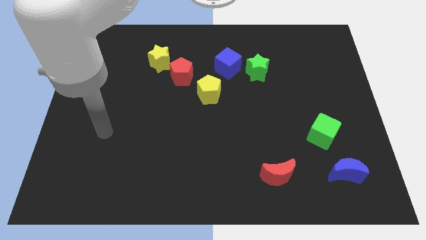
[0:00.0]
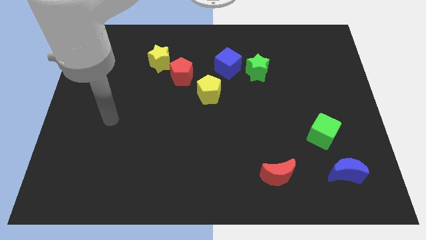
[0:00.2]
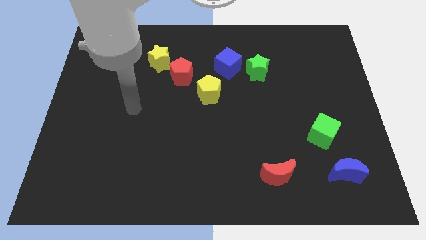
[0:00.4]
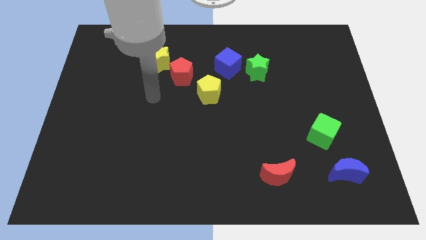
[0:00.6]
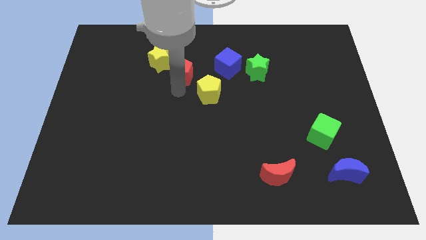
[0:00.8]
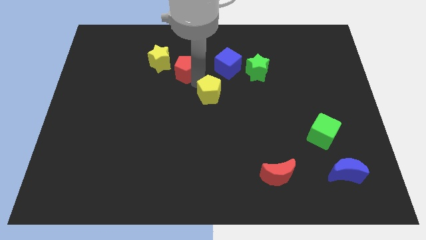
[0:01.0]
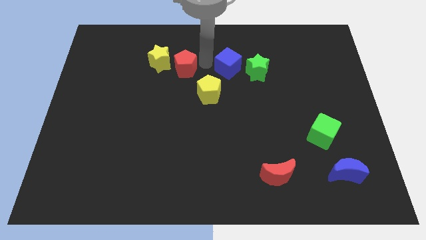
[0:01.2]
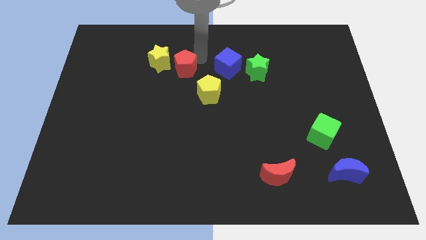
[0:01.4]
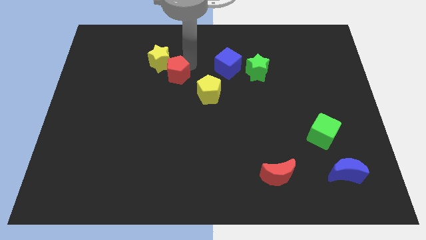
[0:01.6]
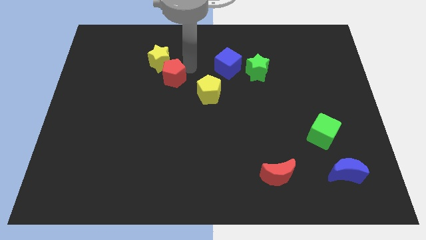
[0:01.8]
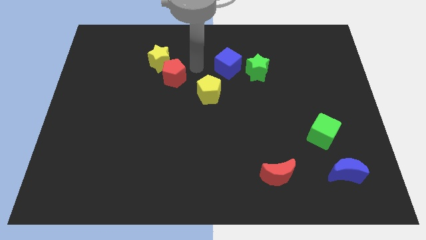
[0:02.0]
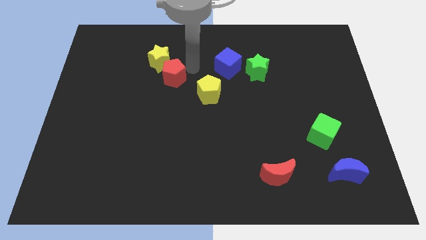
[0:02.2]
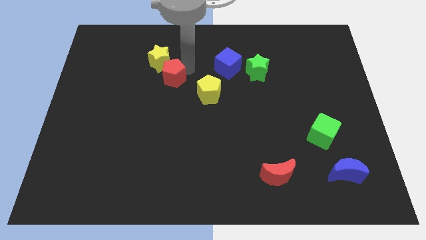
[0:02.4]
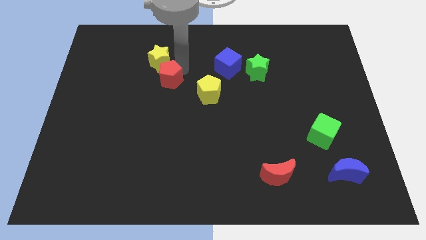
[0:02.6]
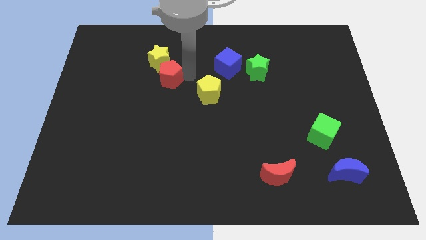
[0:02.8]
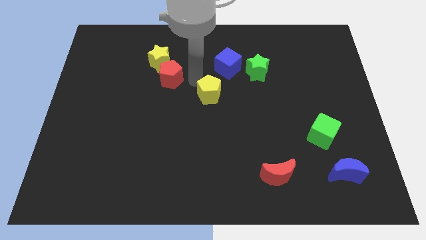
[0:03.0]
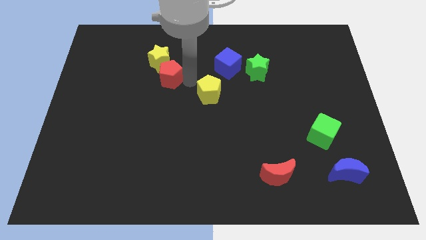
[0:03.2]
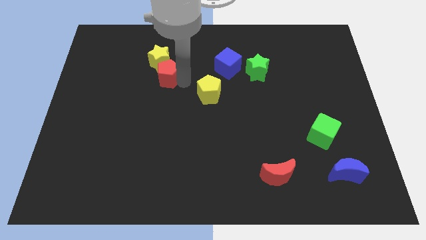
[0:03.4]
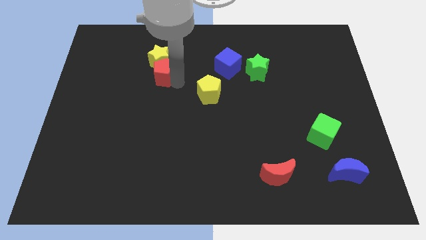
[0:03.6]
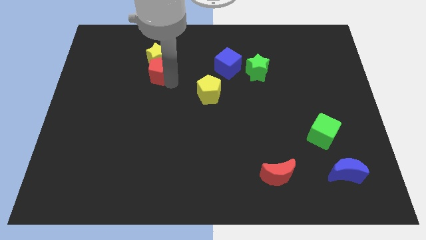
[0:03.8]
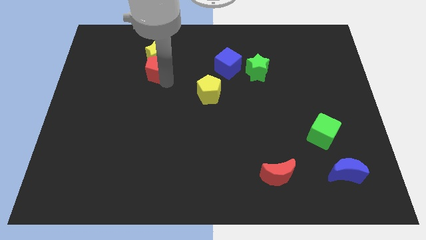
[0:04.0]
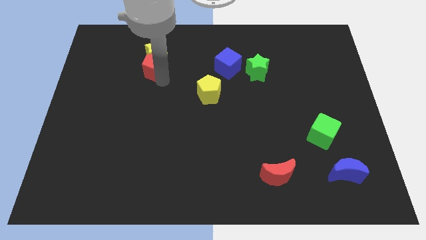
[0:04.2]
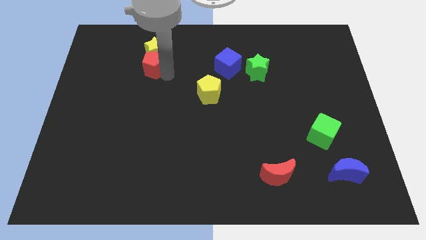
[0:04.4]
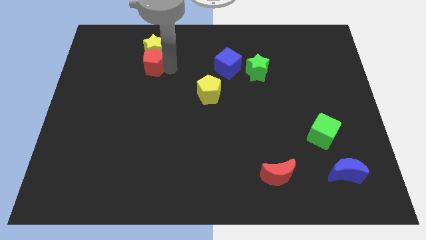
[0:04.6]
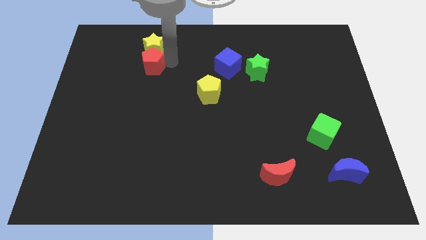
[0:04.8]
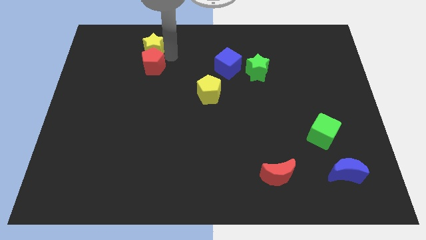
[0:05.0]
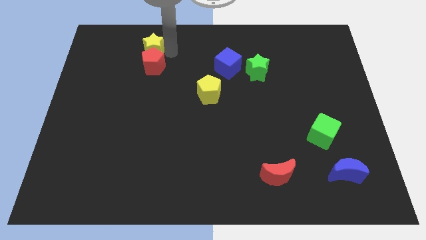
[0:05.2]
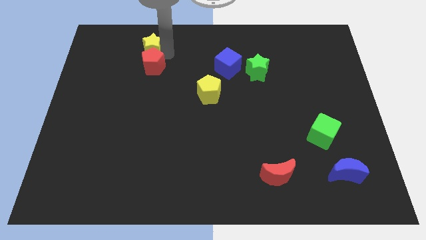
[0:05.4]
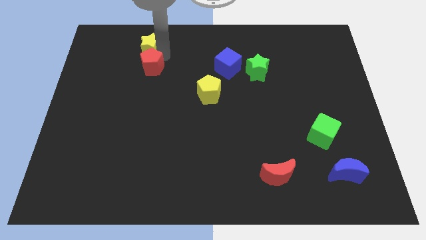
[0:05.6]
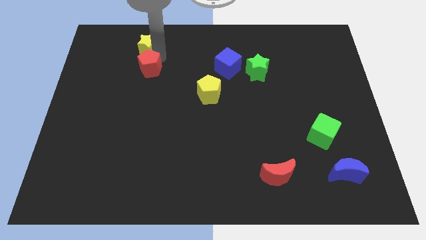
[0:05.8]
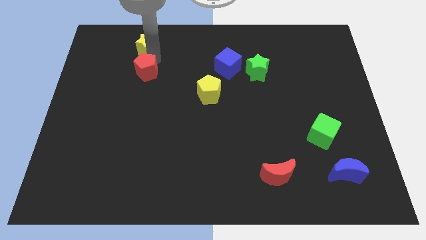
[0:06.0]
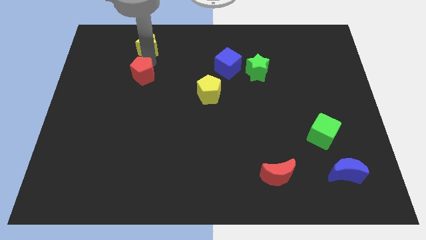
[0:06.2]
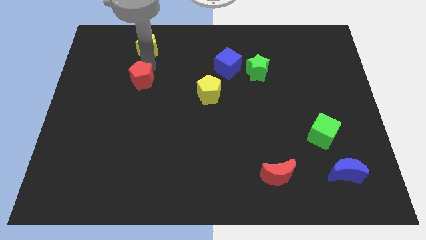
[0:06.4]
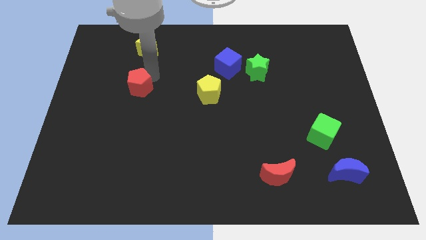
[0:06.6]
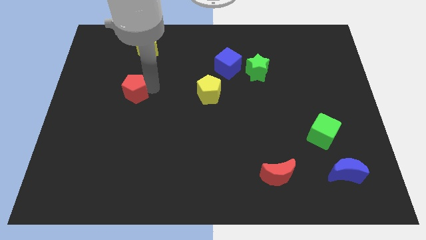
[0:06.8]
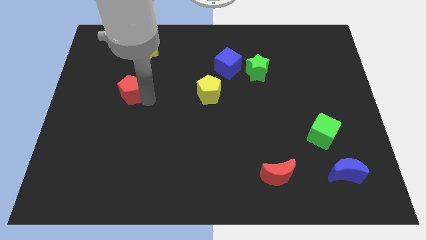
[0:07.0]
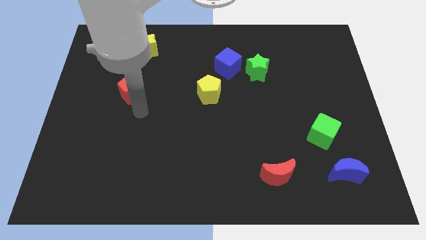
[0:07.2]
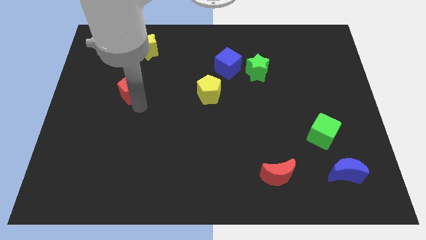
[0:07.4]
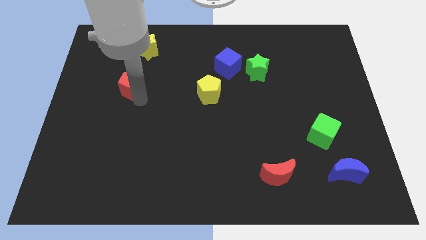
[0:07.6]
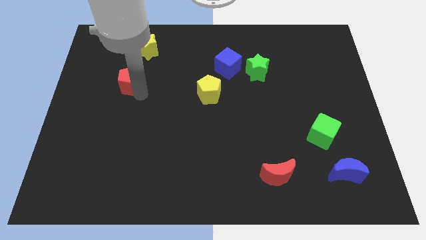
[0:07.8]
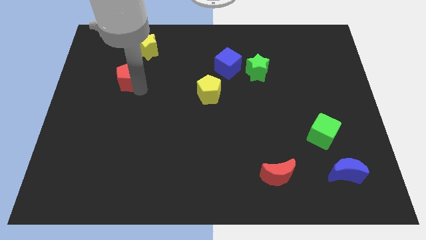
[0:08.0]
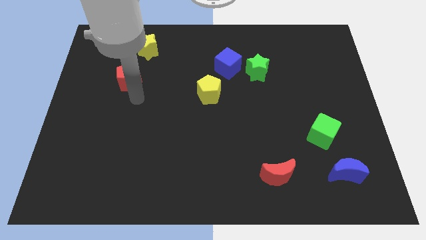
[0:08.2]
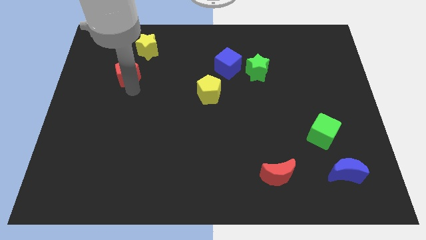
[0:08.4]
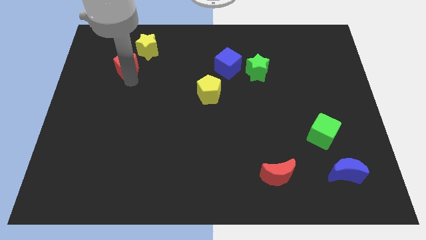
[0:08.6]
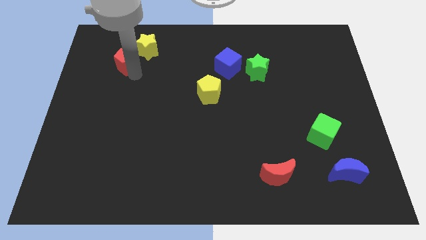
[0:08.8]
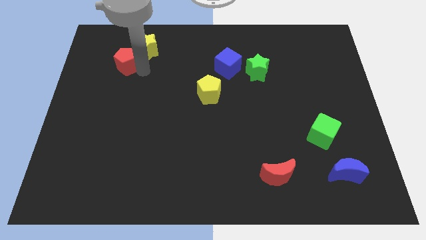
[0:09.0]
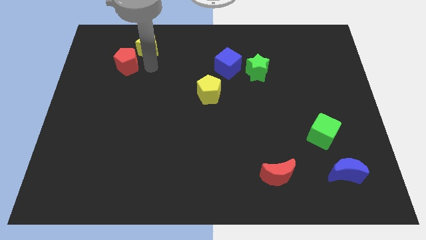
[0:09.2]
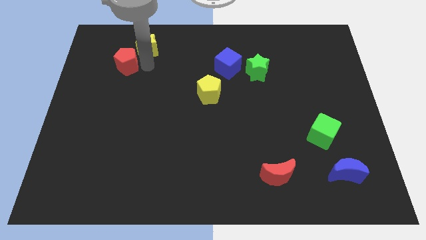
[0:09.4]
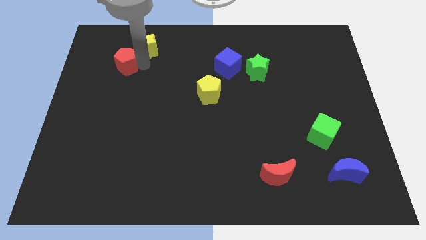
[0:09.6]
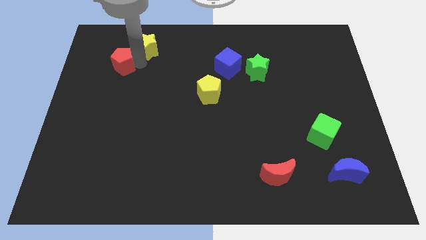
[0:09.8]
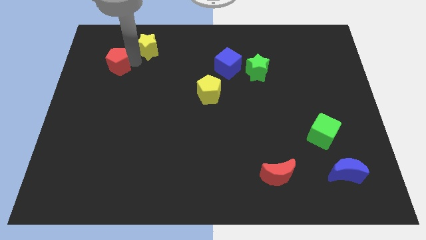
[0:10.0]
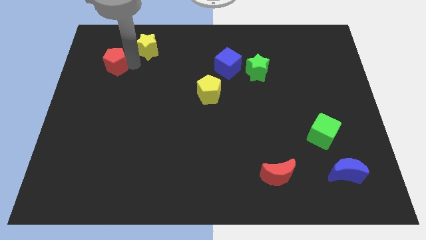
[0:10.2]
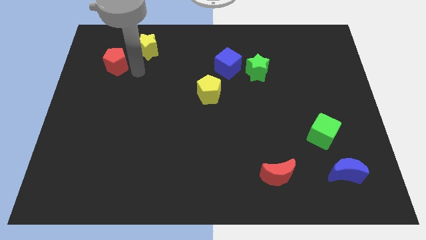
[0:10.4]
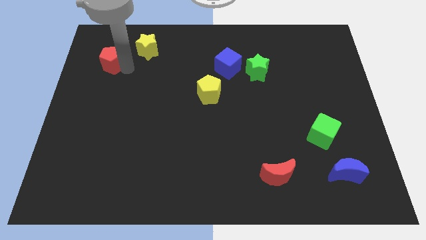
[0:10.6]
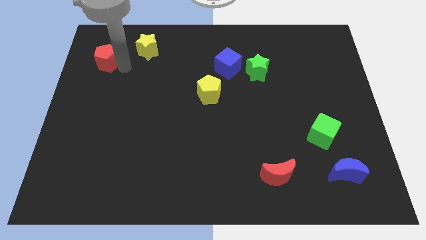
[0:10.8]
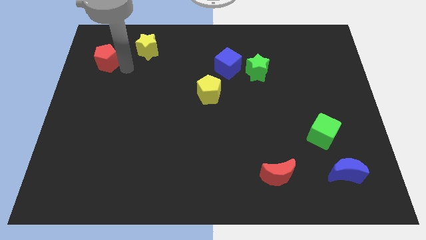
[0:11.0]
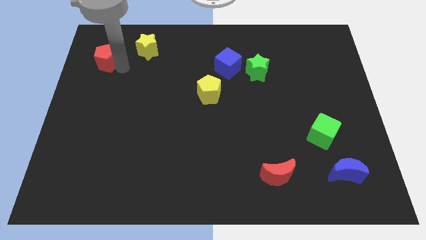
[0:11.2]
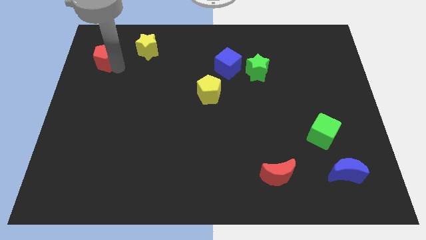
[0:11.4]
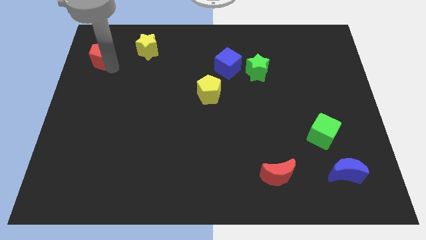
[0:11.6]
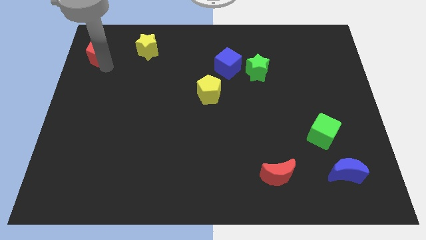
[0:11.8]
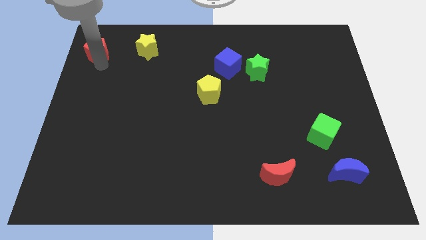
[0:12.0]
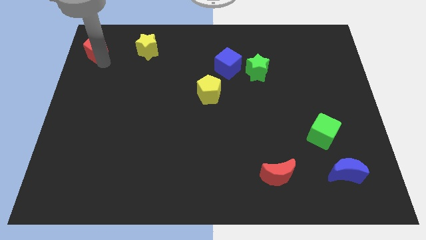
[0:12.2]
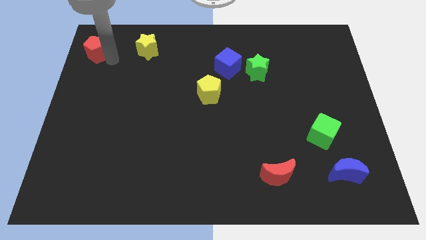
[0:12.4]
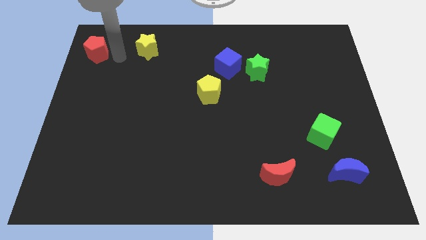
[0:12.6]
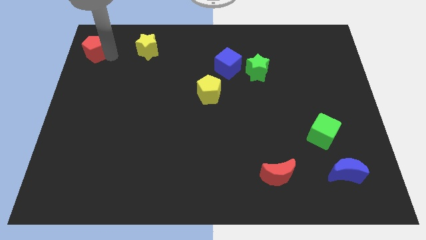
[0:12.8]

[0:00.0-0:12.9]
put the red pentagon to the top left corner
